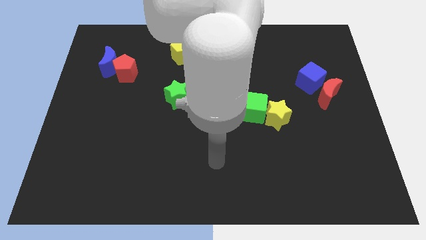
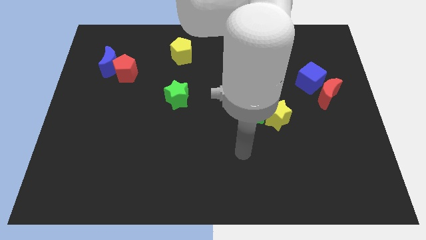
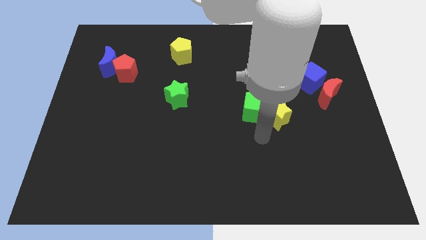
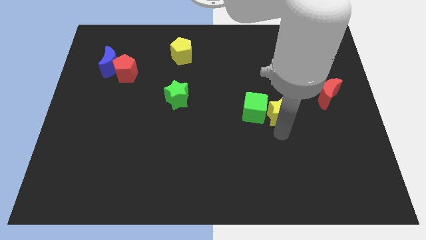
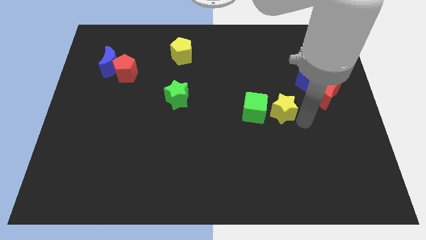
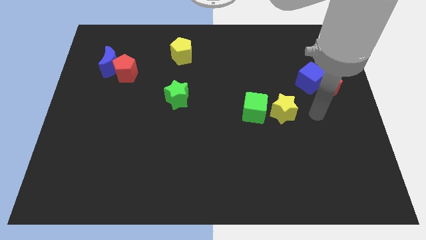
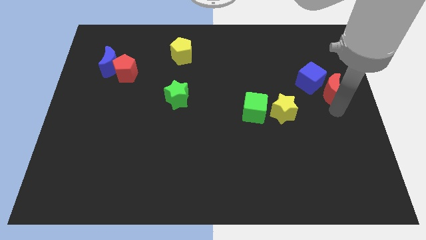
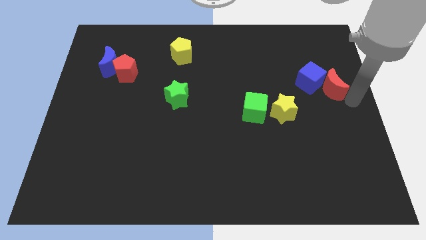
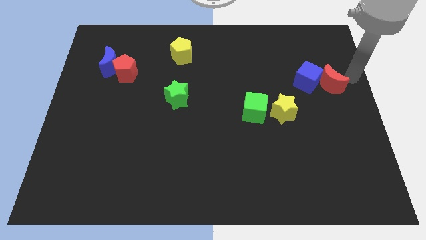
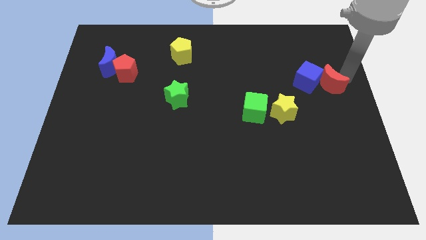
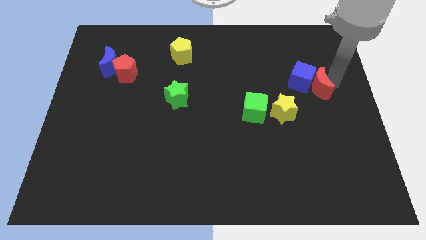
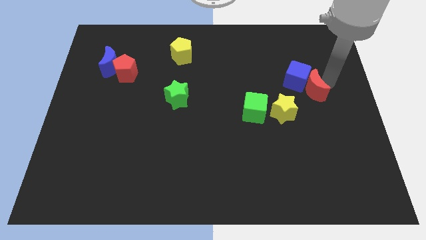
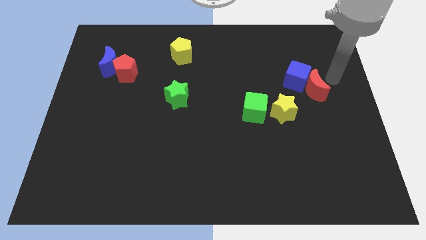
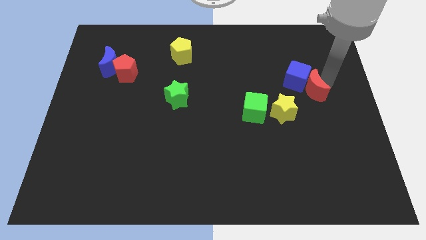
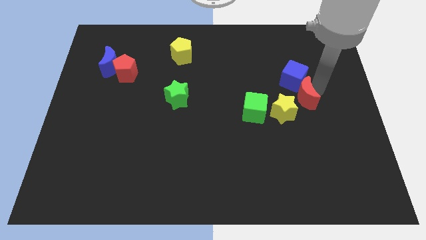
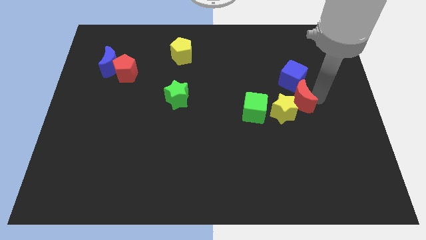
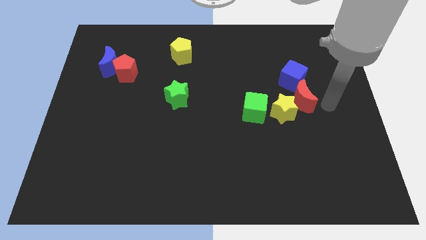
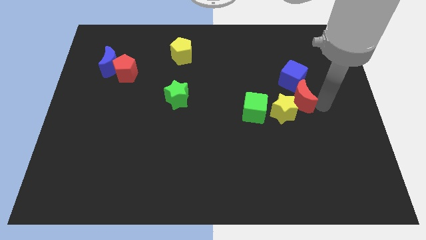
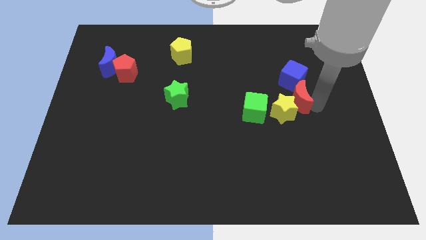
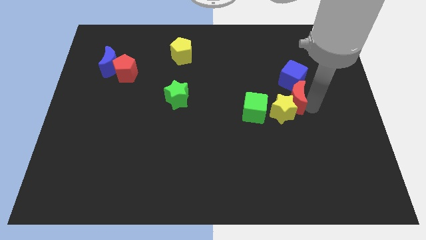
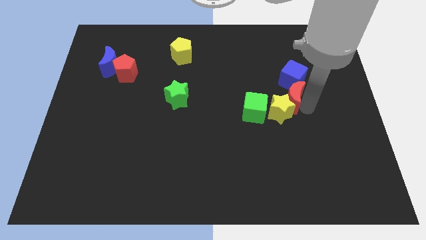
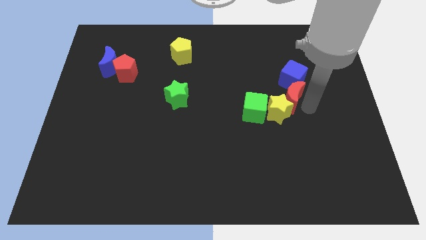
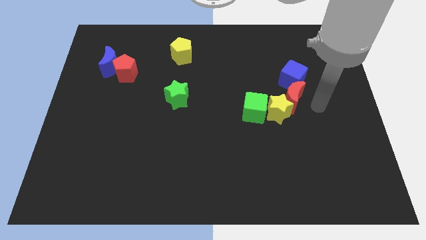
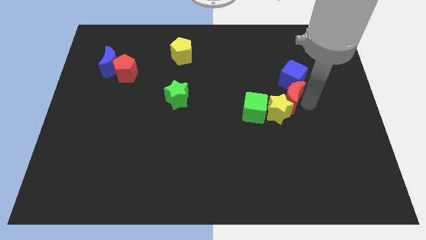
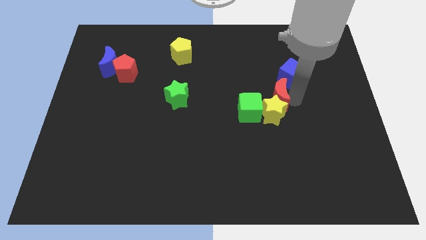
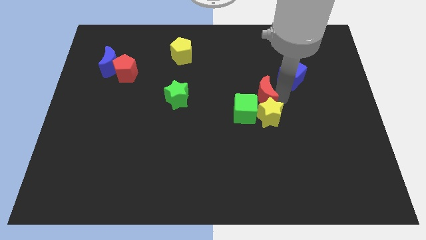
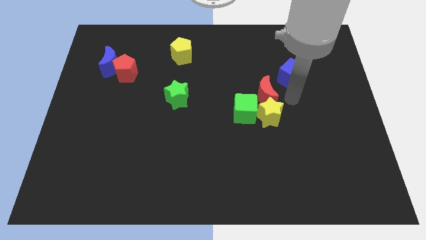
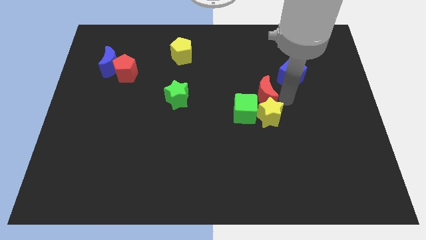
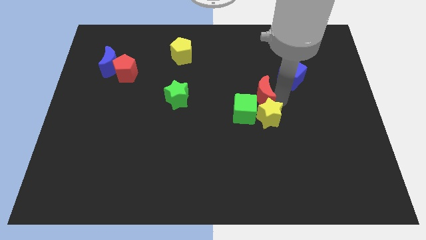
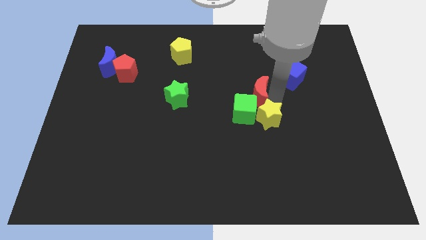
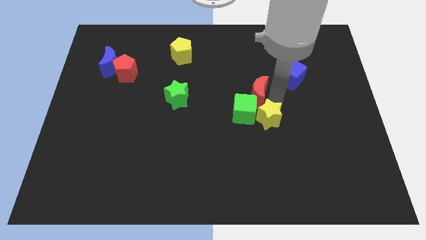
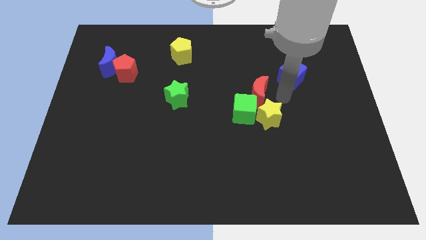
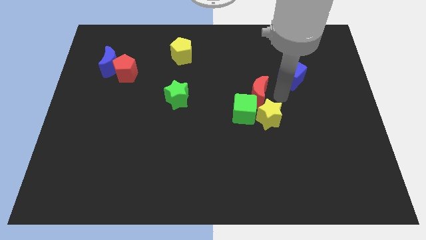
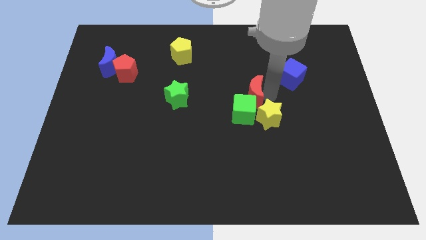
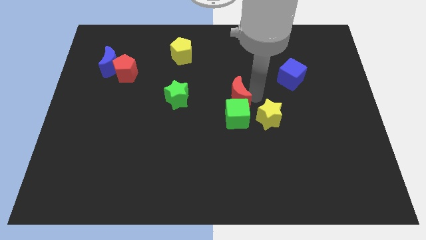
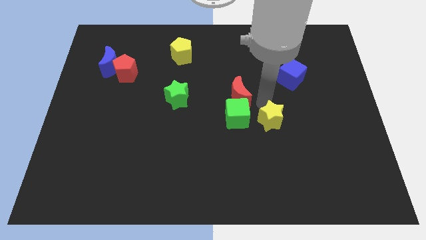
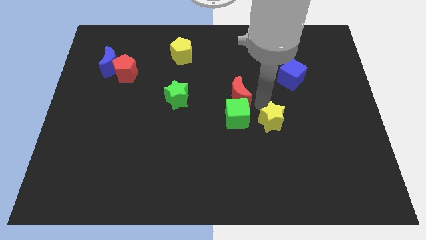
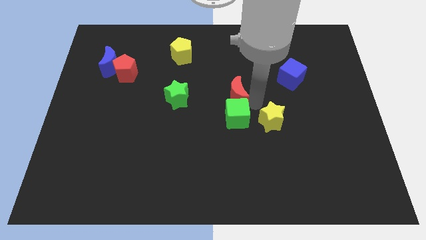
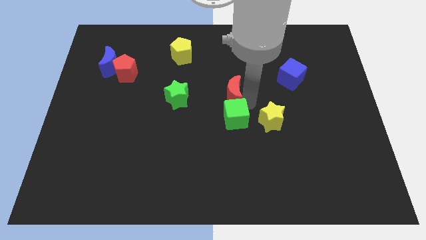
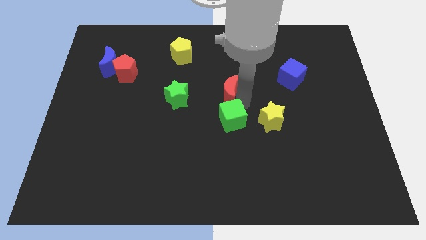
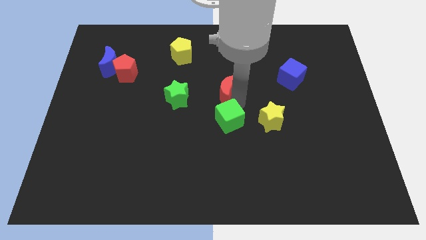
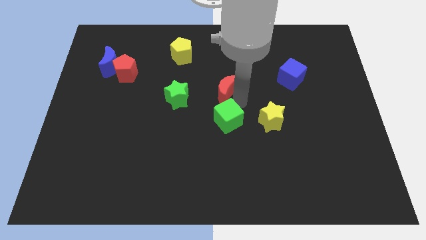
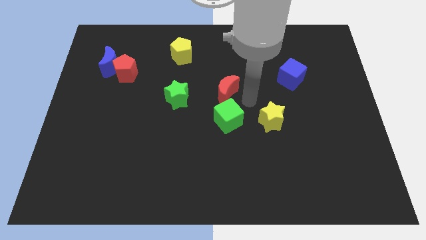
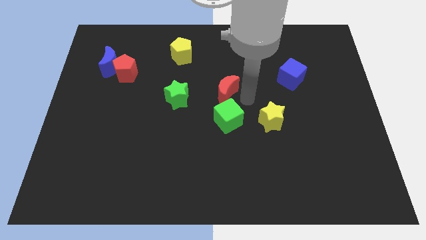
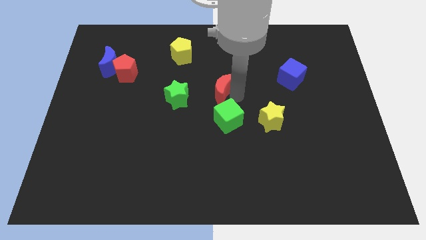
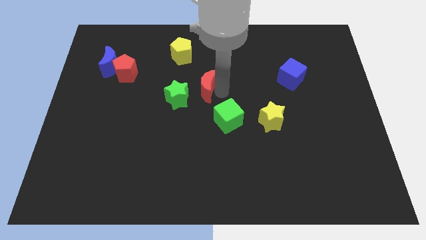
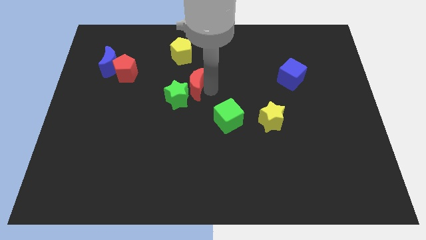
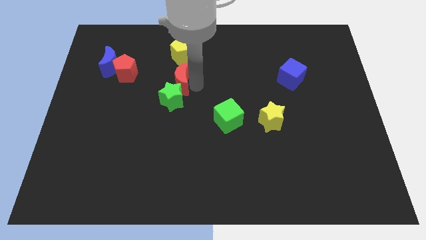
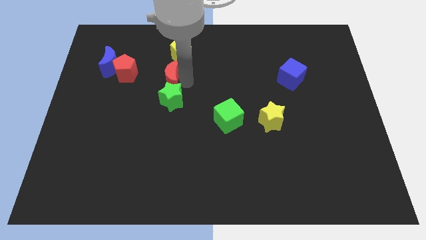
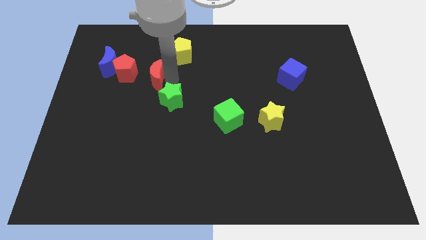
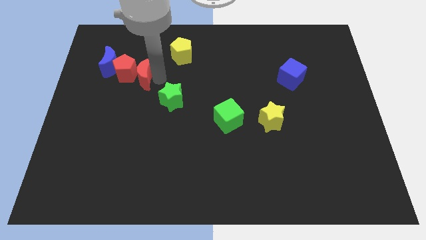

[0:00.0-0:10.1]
slide the red moon next to the red pentagon

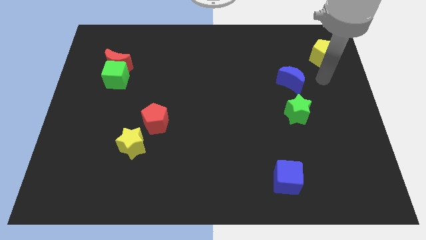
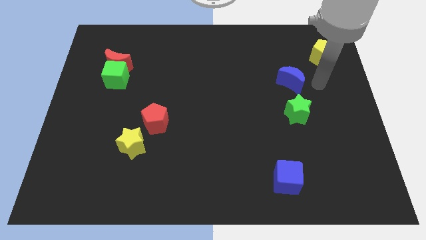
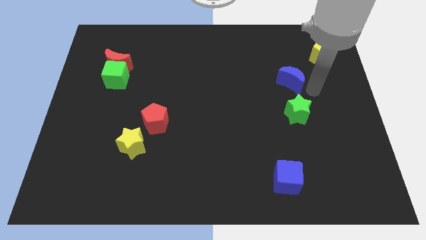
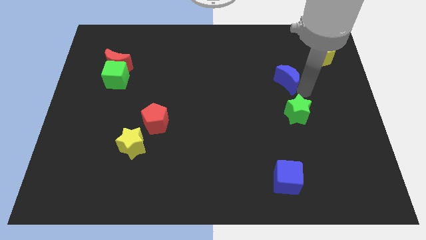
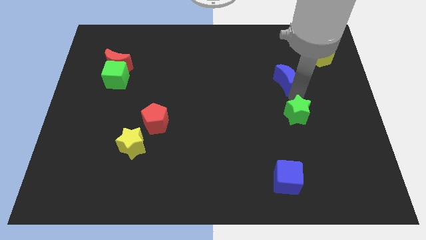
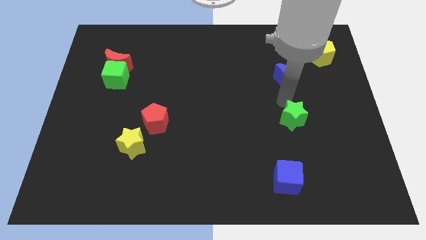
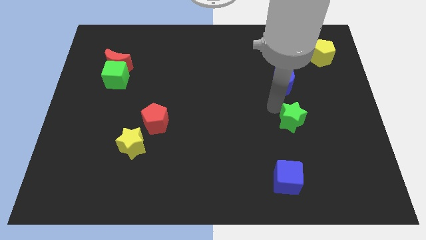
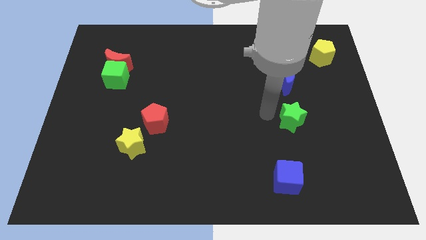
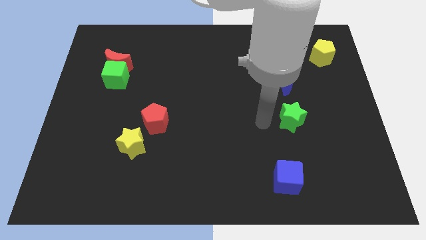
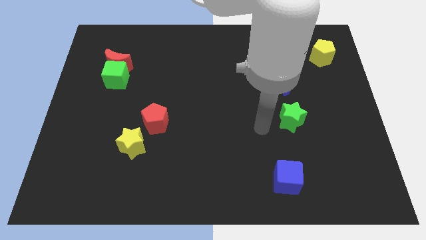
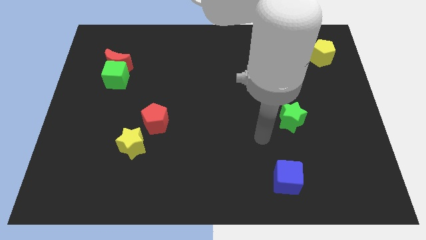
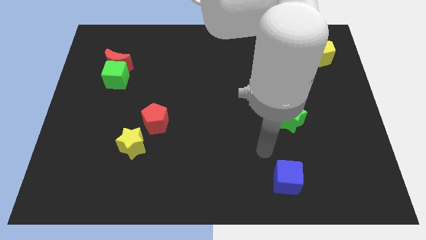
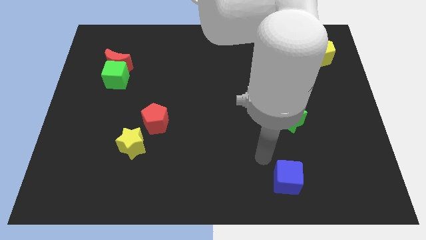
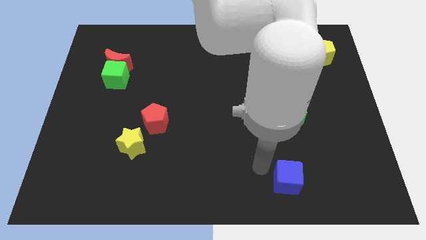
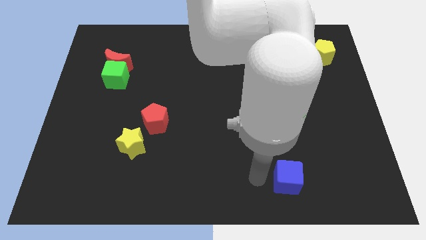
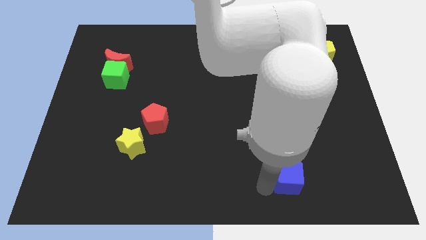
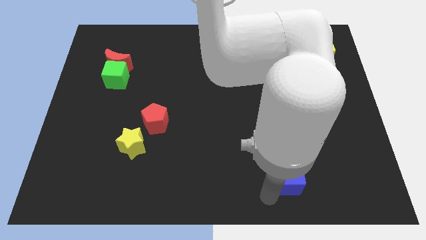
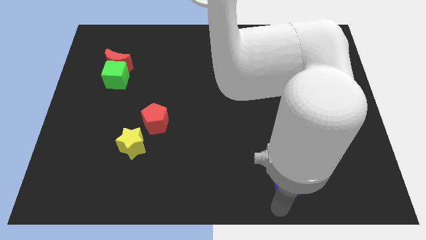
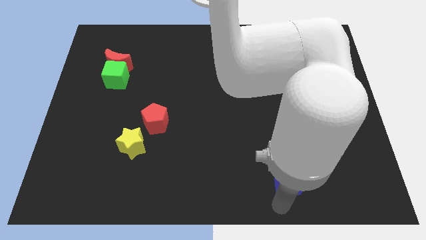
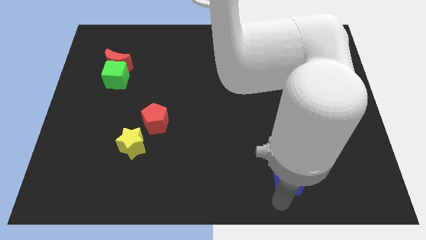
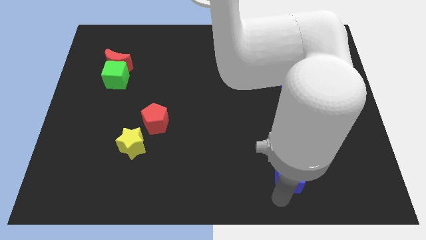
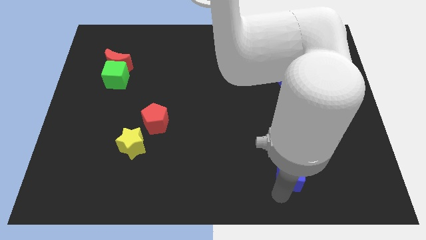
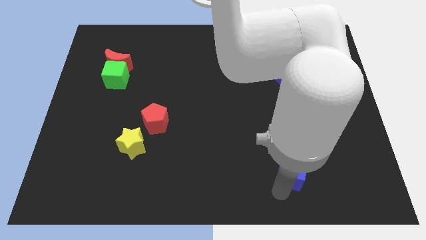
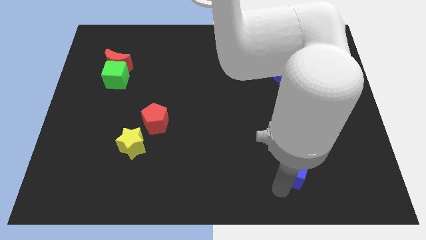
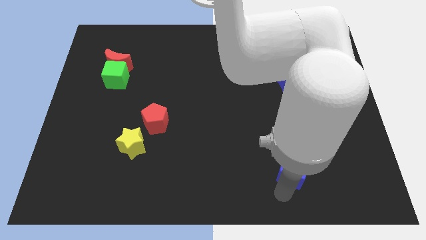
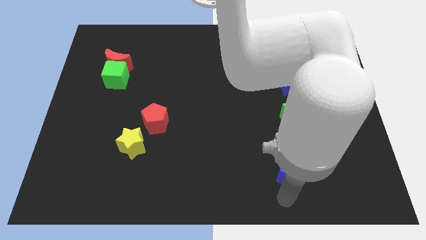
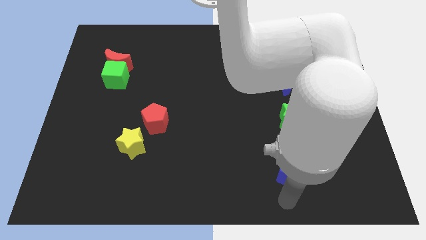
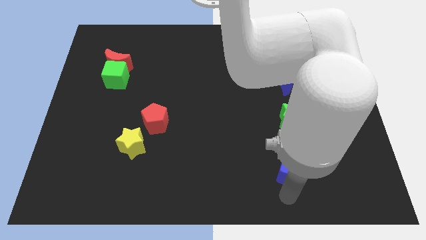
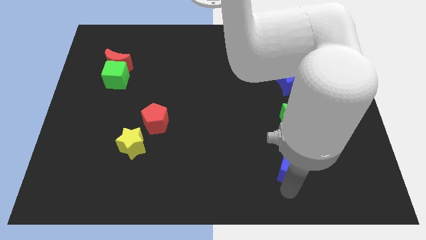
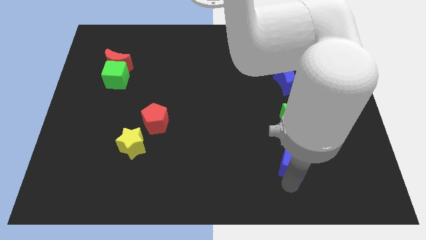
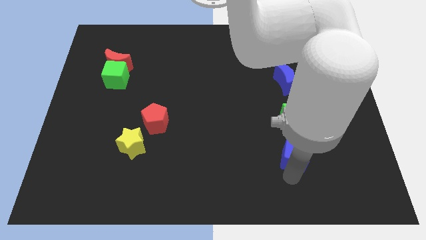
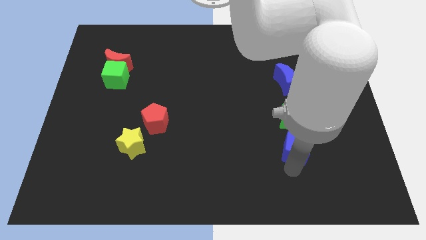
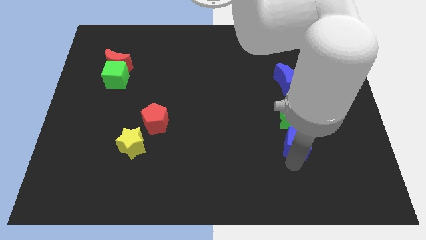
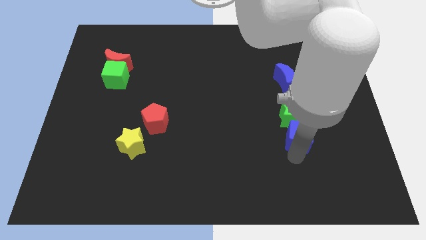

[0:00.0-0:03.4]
push the blue cube next to the green star

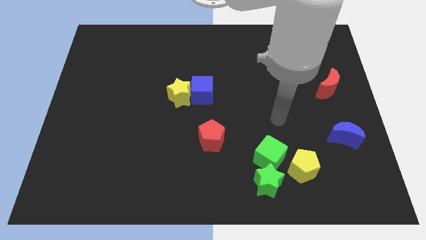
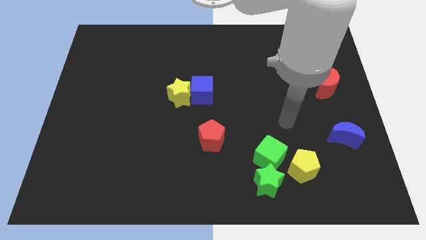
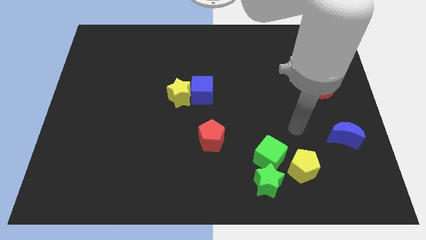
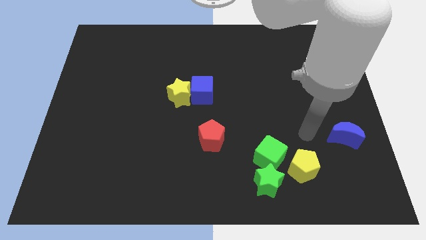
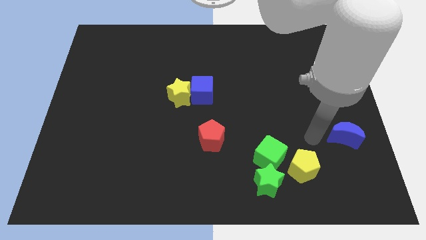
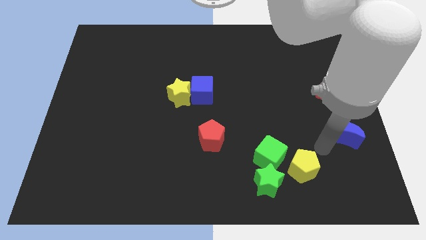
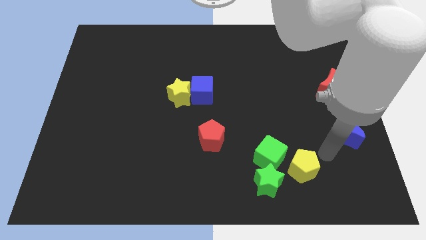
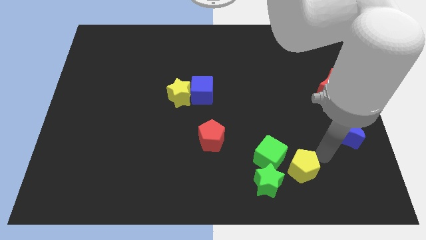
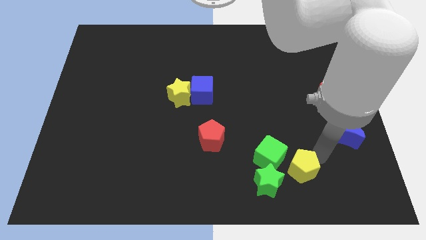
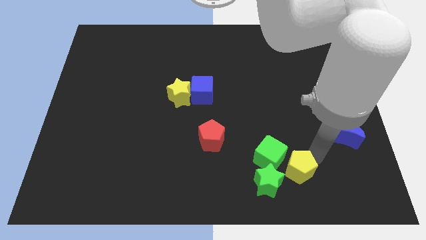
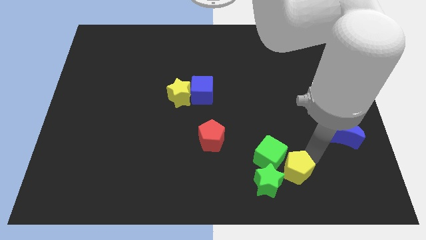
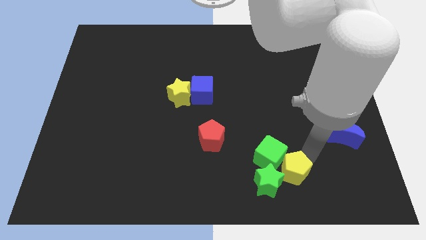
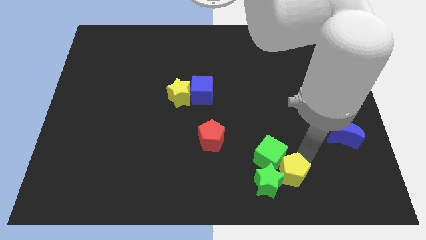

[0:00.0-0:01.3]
push the yellow pentagon towards the green star
